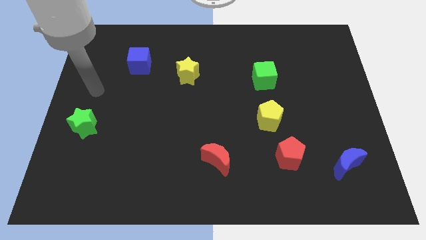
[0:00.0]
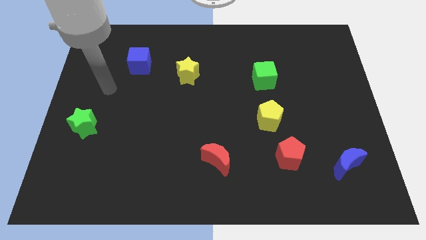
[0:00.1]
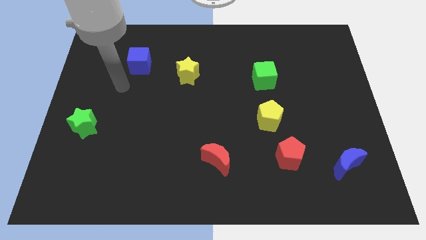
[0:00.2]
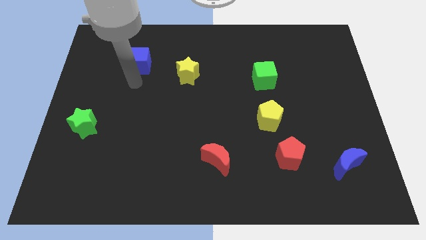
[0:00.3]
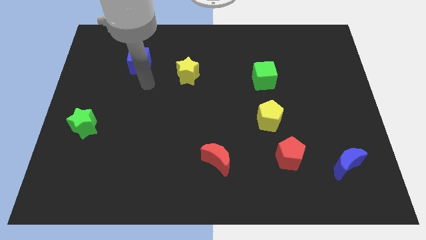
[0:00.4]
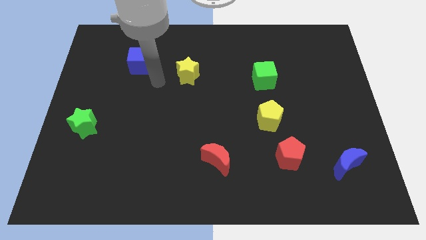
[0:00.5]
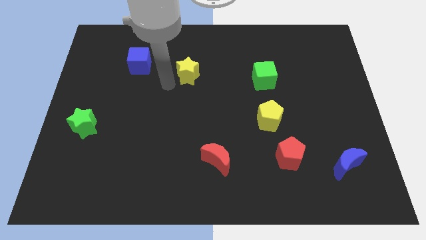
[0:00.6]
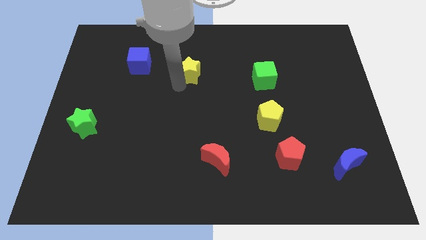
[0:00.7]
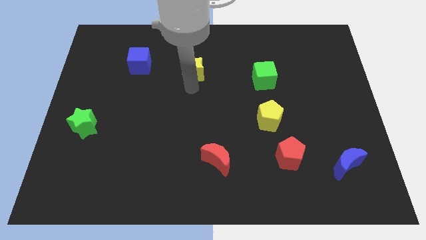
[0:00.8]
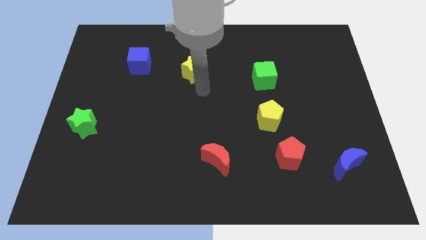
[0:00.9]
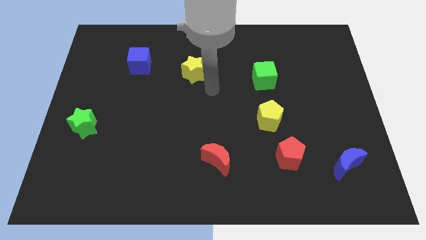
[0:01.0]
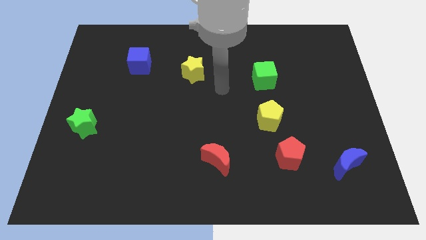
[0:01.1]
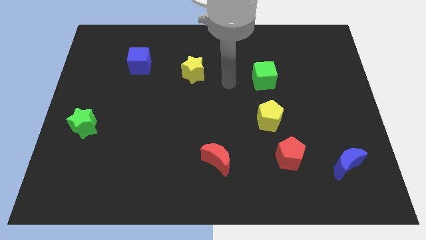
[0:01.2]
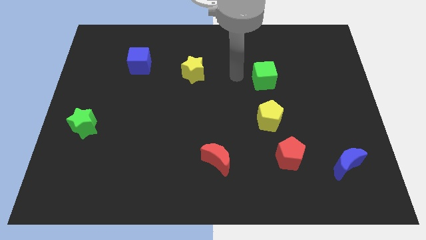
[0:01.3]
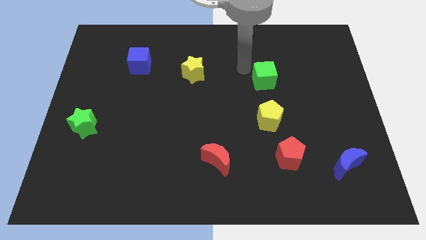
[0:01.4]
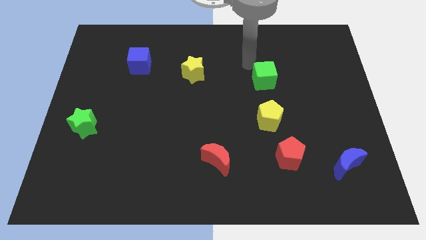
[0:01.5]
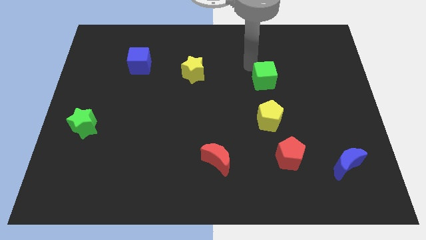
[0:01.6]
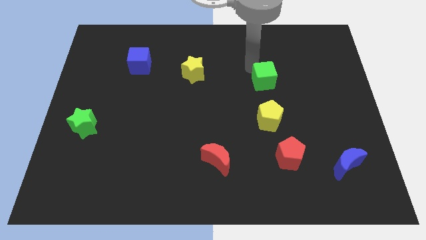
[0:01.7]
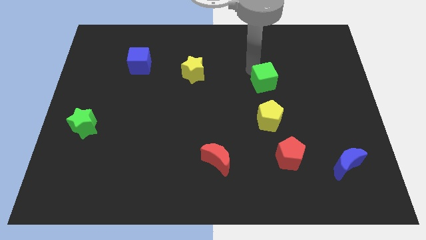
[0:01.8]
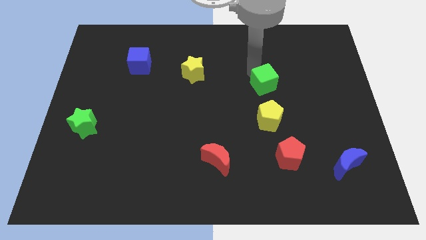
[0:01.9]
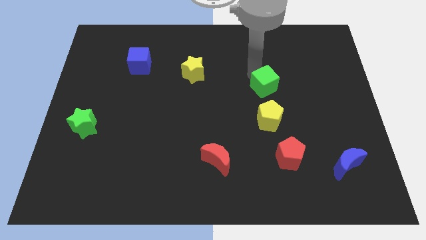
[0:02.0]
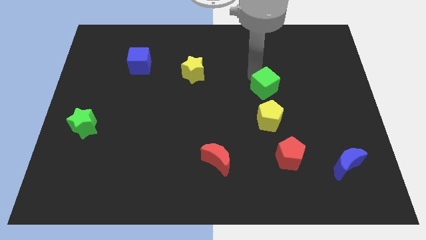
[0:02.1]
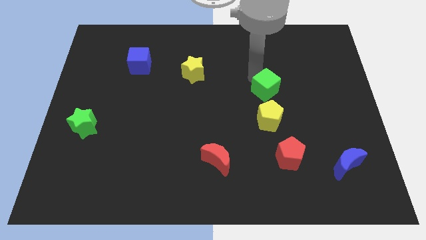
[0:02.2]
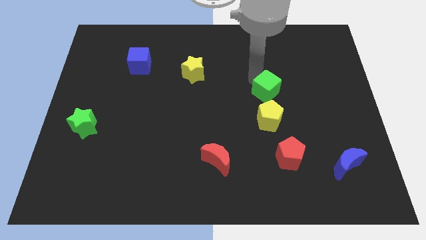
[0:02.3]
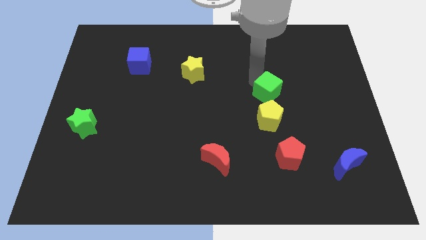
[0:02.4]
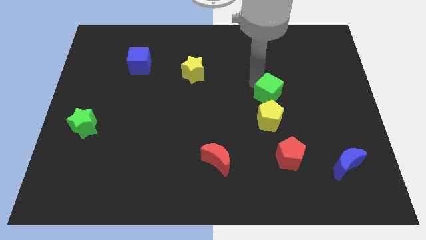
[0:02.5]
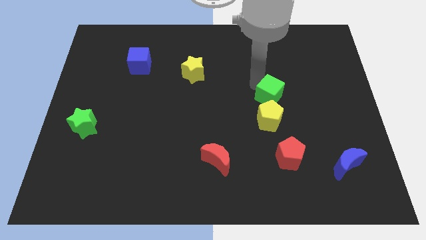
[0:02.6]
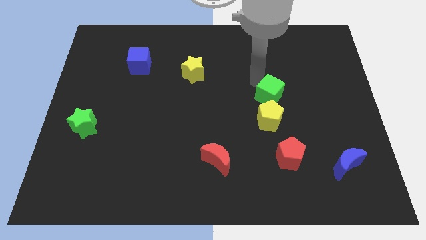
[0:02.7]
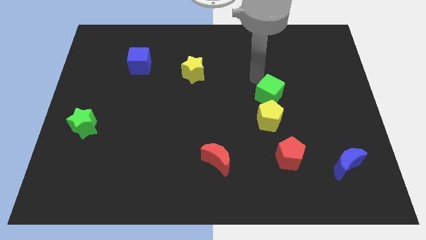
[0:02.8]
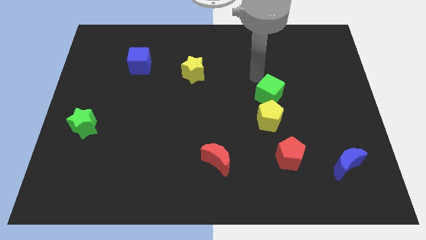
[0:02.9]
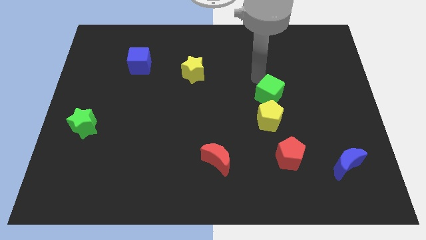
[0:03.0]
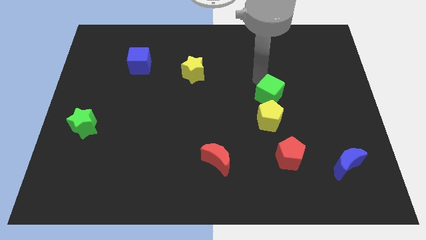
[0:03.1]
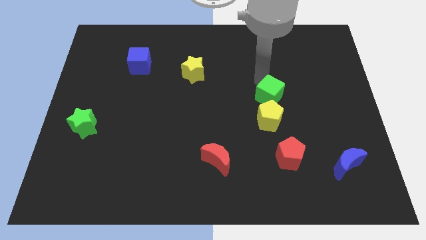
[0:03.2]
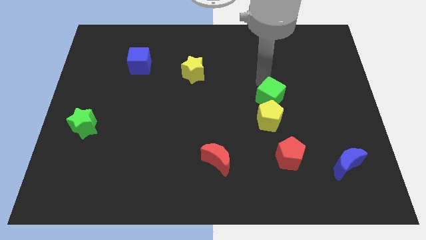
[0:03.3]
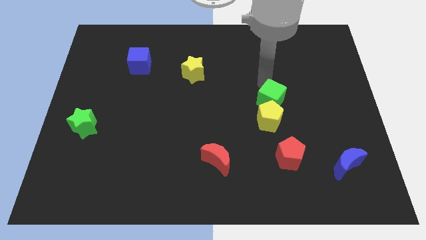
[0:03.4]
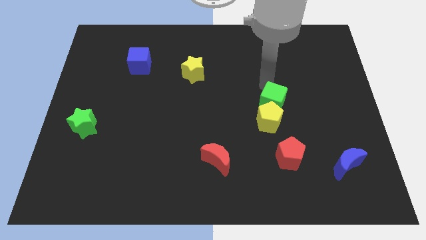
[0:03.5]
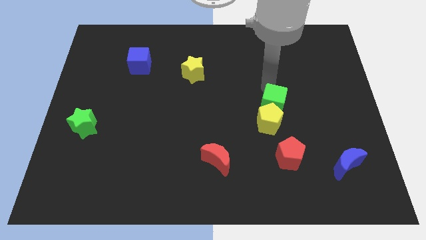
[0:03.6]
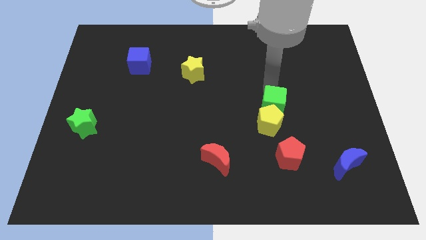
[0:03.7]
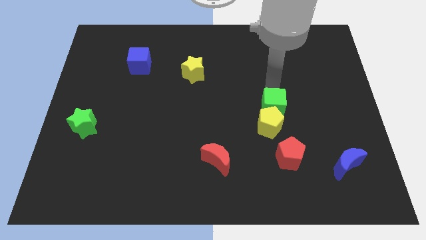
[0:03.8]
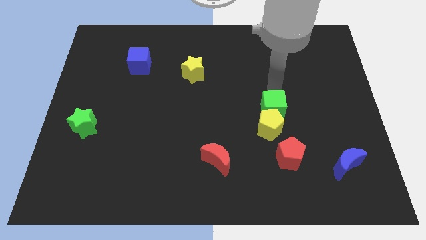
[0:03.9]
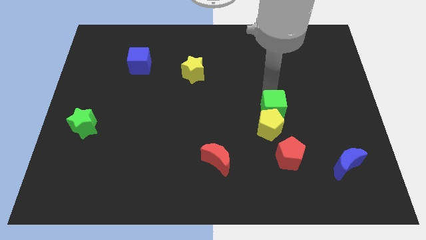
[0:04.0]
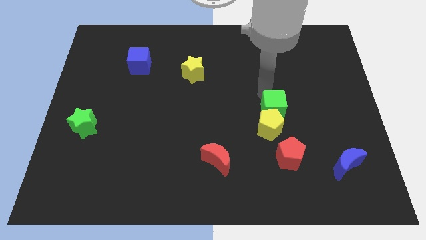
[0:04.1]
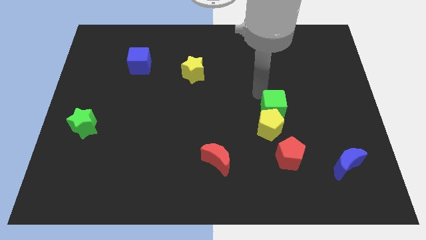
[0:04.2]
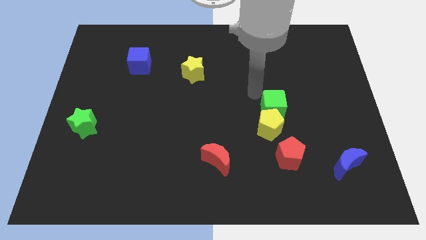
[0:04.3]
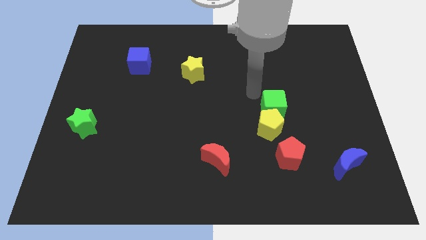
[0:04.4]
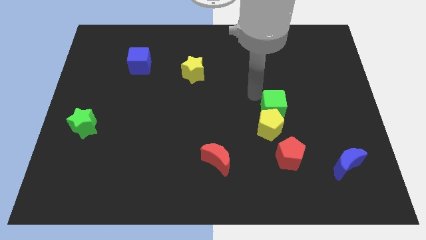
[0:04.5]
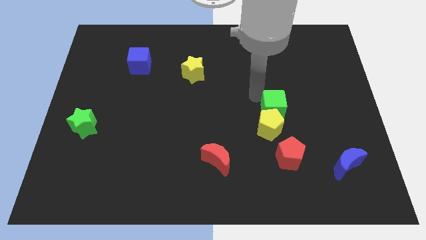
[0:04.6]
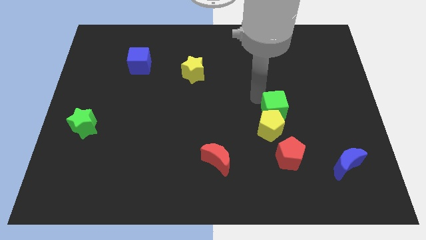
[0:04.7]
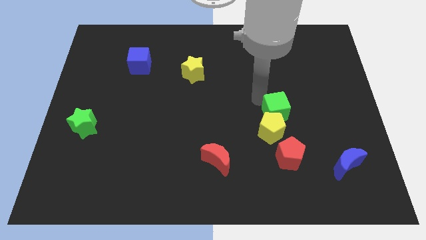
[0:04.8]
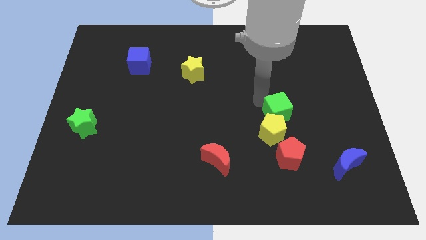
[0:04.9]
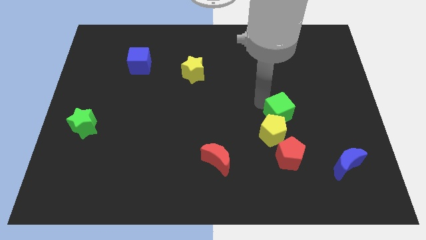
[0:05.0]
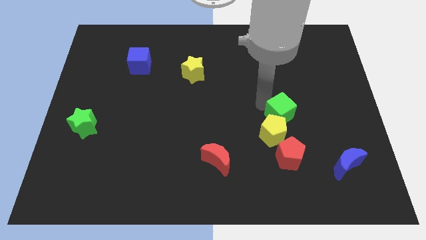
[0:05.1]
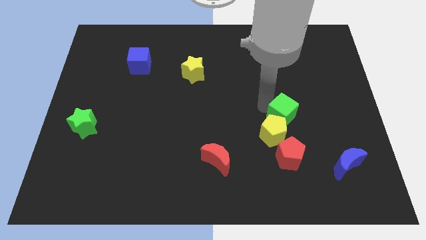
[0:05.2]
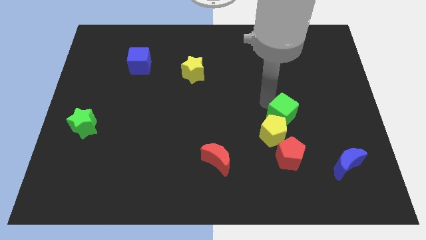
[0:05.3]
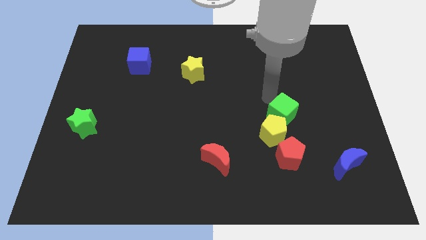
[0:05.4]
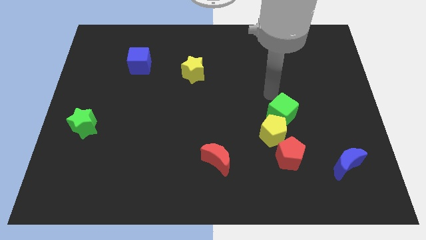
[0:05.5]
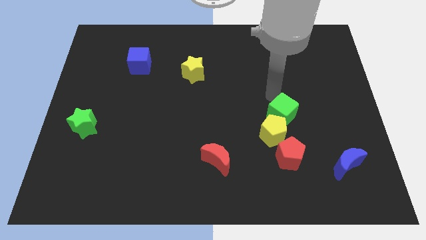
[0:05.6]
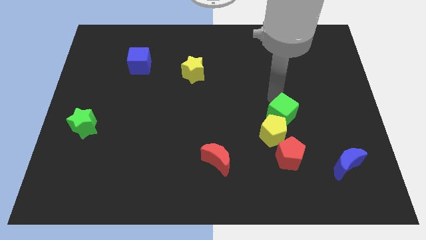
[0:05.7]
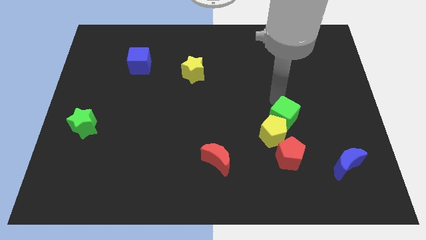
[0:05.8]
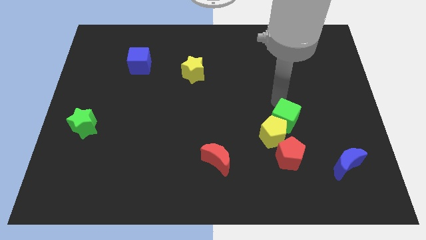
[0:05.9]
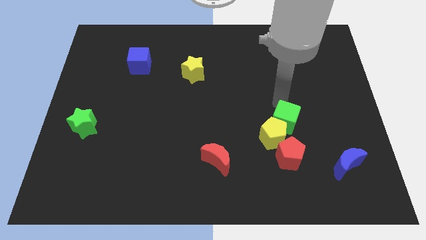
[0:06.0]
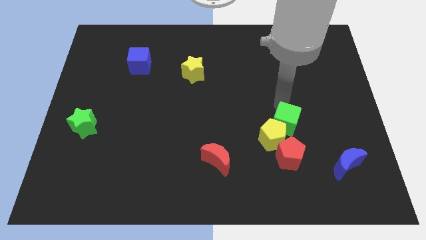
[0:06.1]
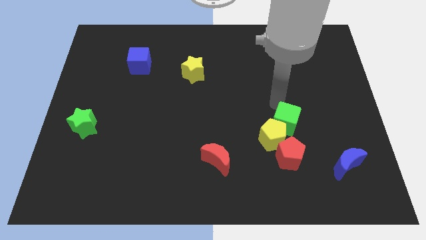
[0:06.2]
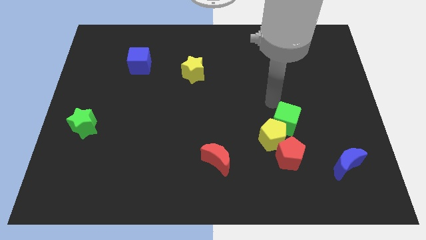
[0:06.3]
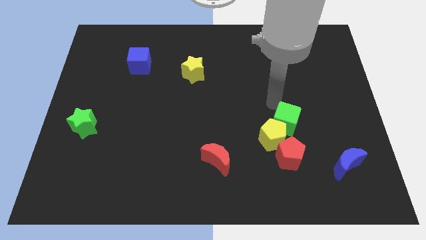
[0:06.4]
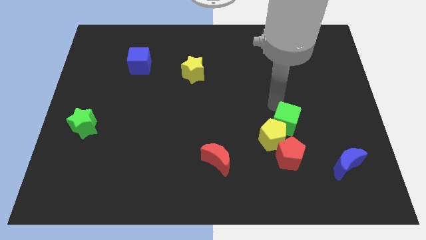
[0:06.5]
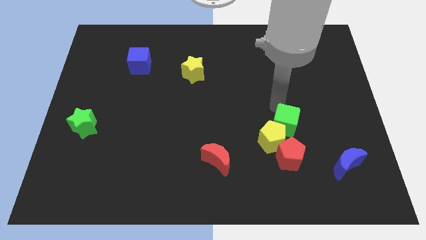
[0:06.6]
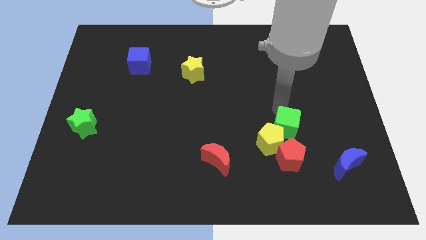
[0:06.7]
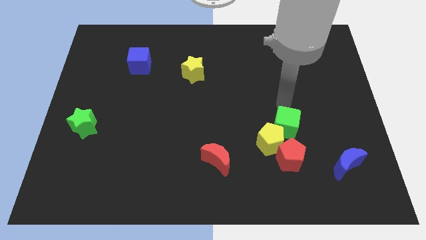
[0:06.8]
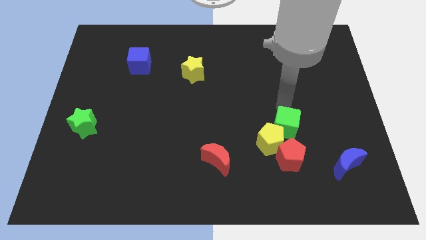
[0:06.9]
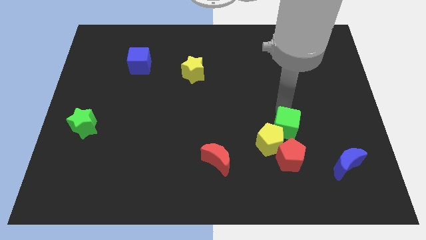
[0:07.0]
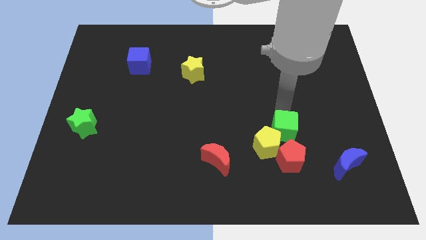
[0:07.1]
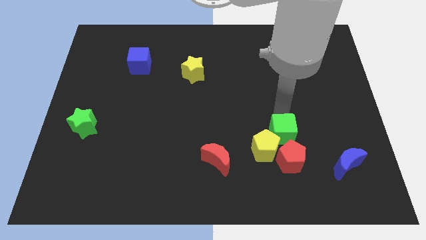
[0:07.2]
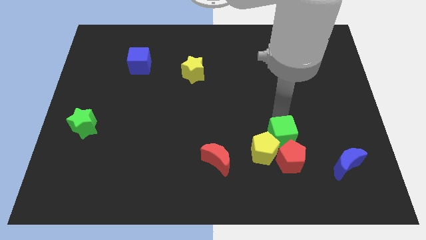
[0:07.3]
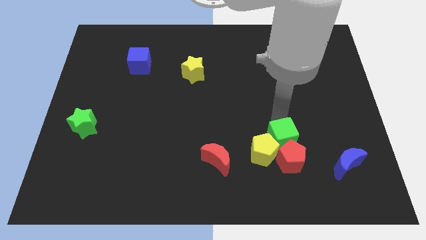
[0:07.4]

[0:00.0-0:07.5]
move the green cube to the red pentagon
